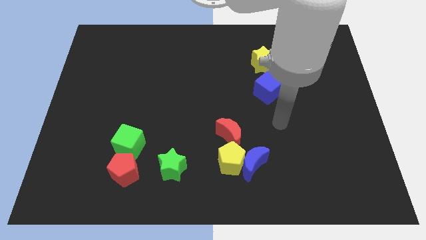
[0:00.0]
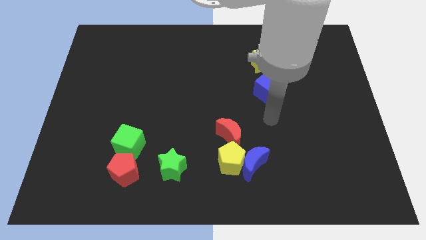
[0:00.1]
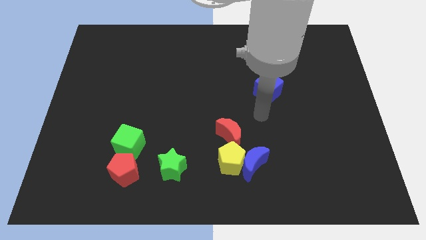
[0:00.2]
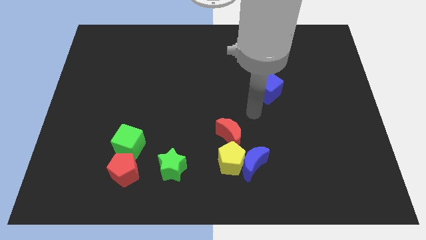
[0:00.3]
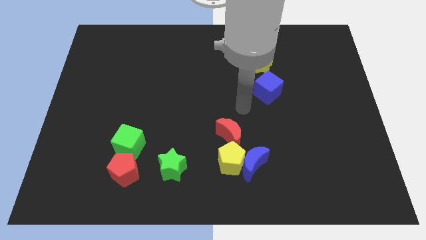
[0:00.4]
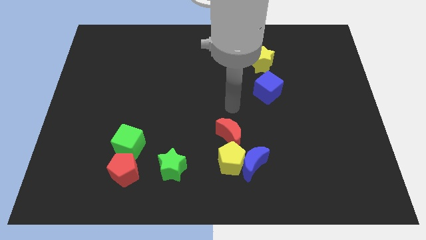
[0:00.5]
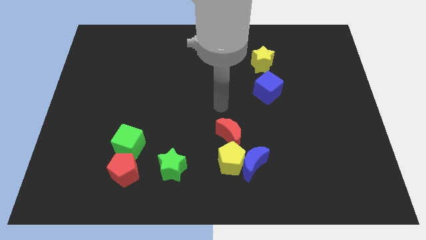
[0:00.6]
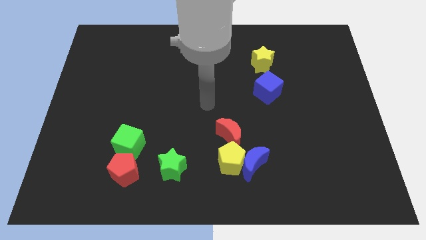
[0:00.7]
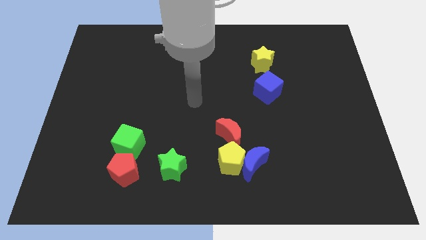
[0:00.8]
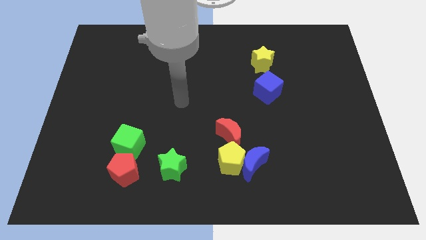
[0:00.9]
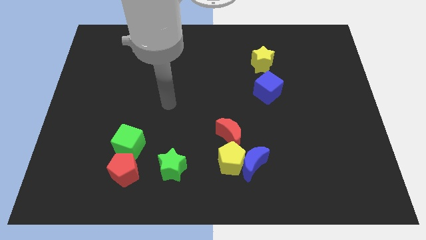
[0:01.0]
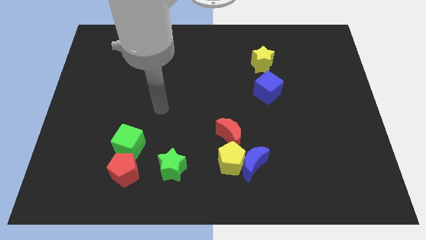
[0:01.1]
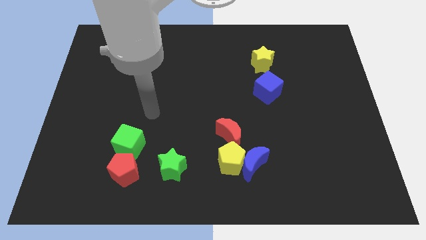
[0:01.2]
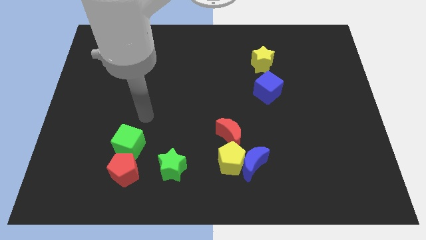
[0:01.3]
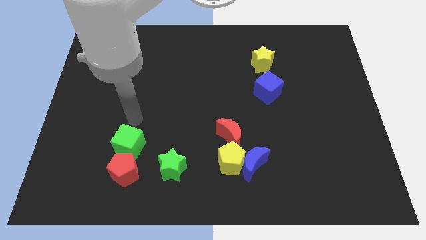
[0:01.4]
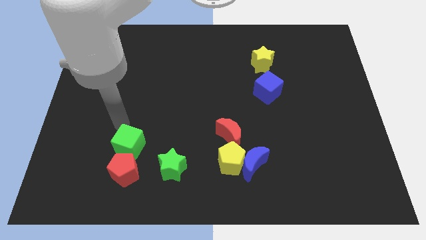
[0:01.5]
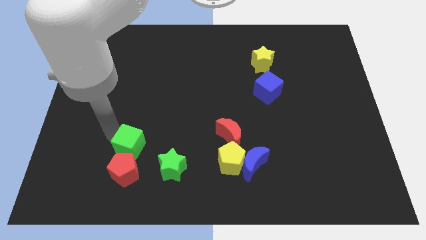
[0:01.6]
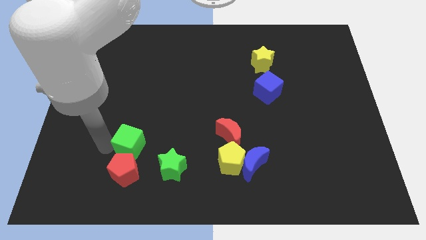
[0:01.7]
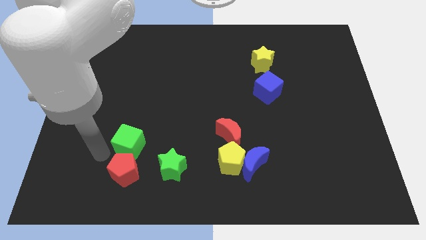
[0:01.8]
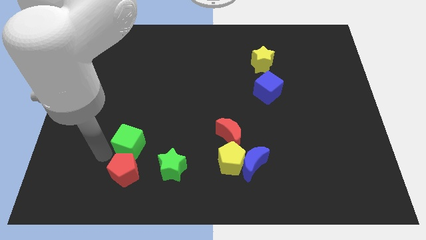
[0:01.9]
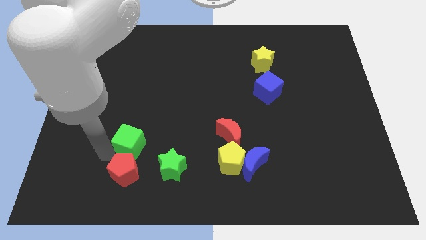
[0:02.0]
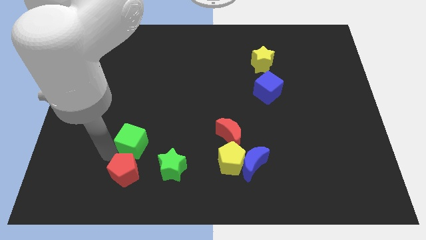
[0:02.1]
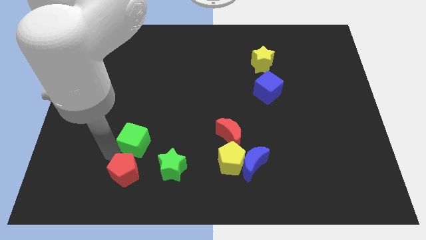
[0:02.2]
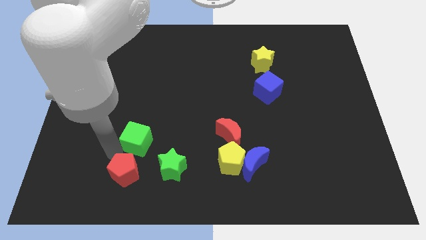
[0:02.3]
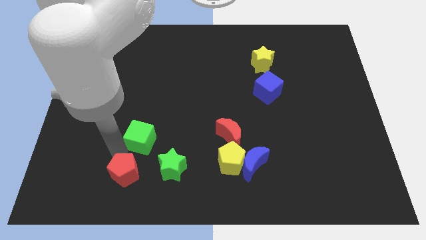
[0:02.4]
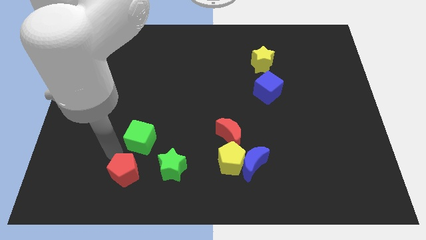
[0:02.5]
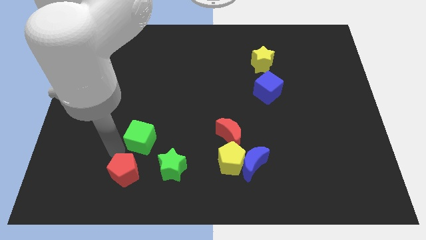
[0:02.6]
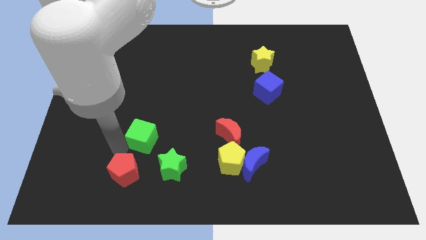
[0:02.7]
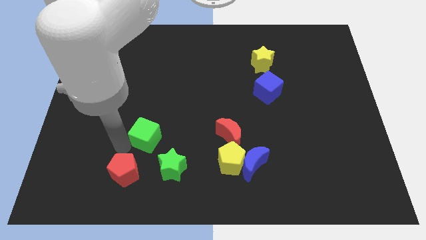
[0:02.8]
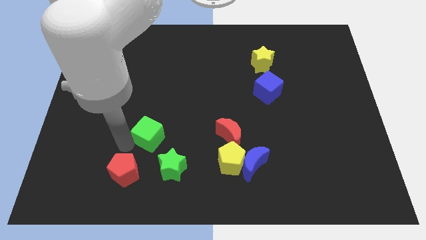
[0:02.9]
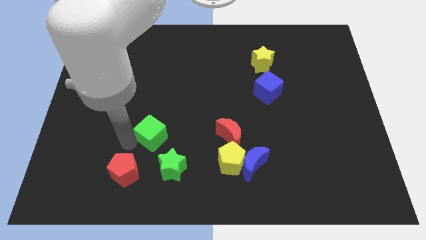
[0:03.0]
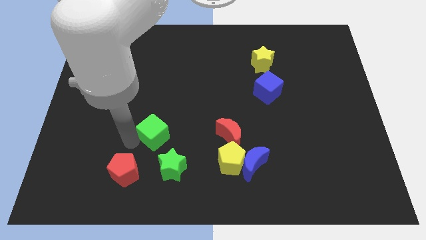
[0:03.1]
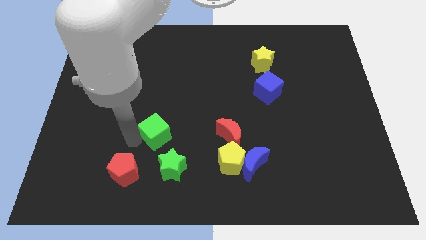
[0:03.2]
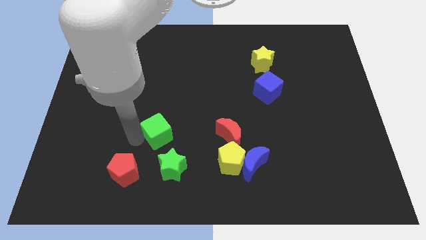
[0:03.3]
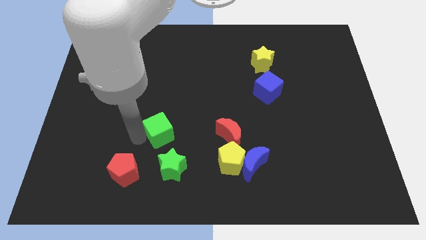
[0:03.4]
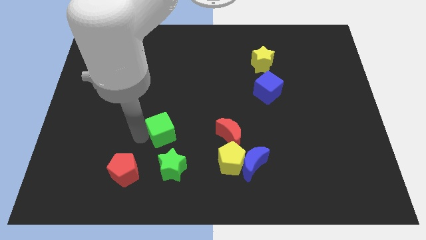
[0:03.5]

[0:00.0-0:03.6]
move the green cube up and to the right diagonally a little

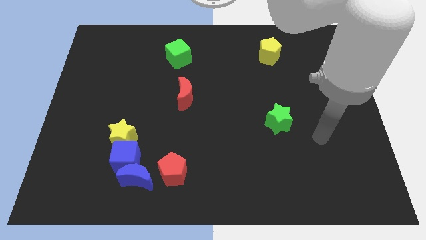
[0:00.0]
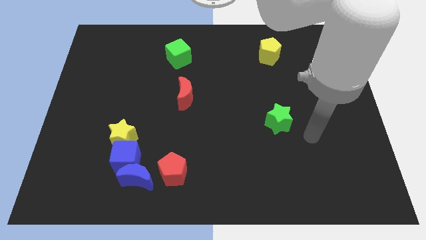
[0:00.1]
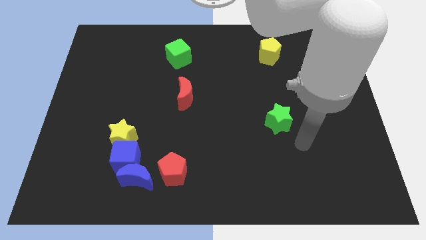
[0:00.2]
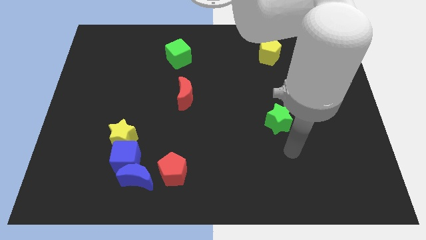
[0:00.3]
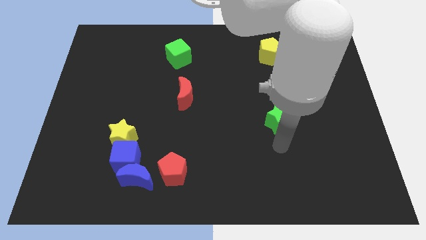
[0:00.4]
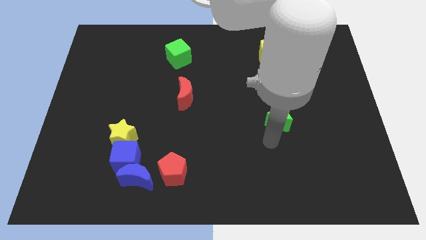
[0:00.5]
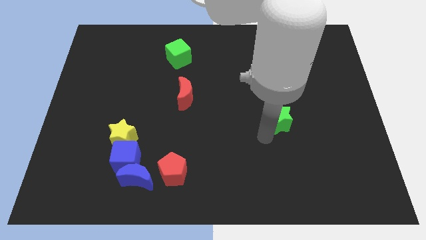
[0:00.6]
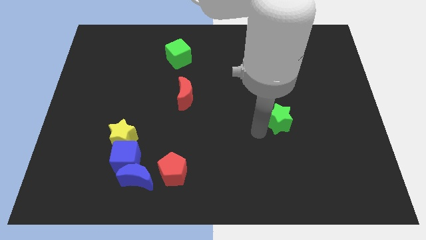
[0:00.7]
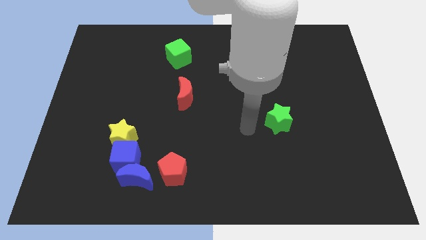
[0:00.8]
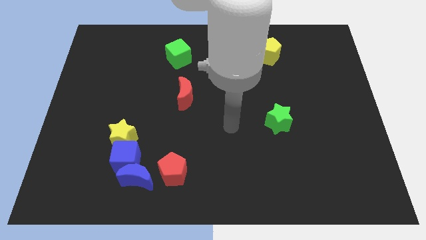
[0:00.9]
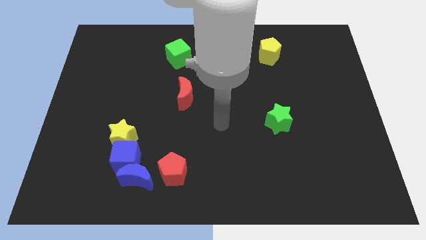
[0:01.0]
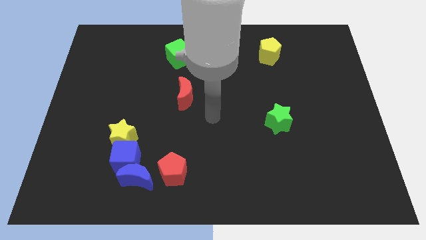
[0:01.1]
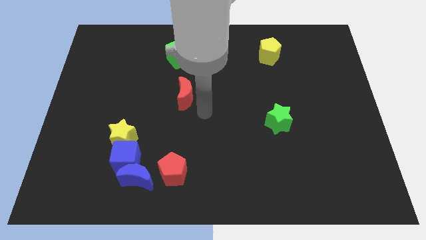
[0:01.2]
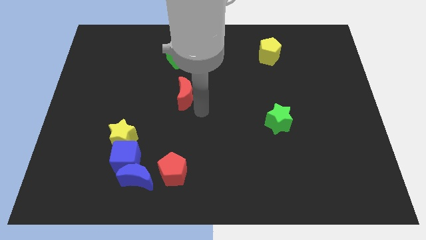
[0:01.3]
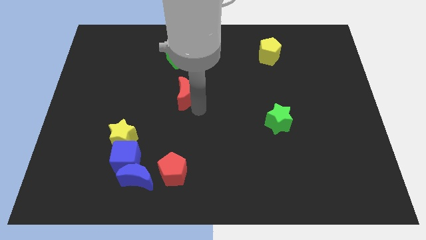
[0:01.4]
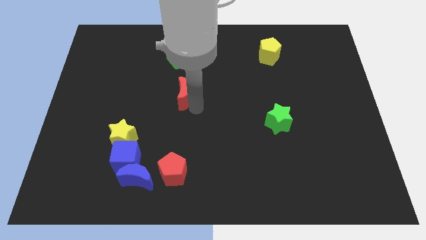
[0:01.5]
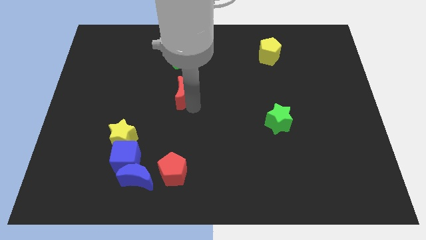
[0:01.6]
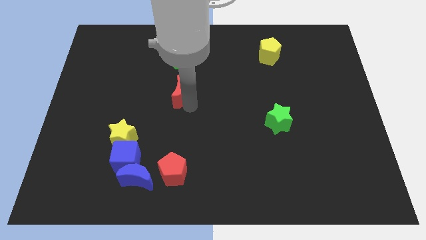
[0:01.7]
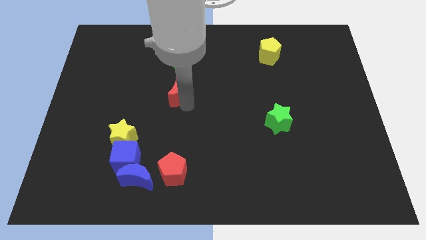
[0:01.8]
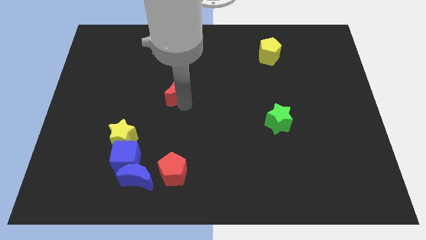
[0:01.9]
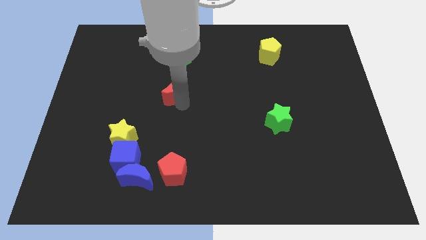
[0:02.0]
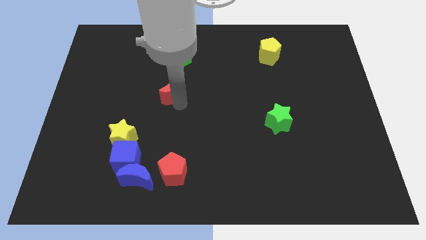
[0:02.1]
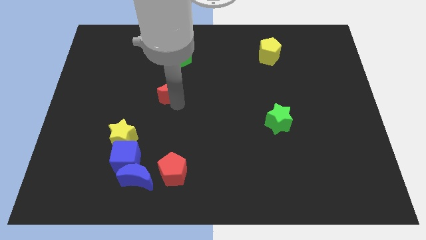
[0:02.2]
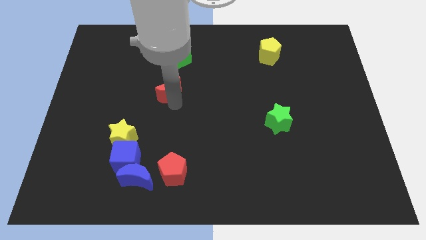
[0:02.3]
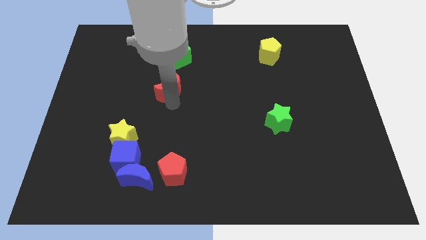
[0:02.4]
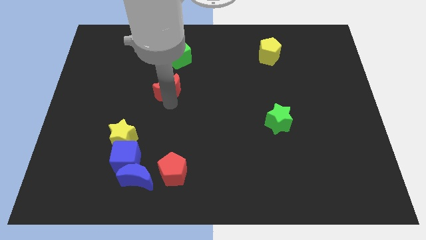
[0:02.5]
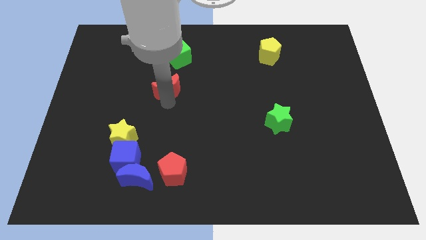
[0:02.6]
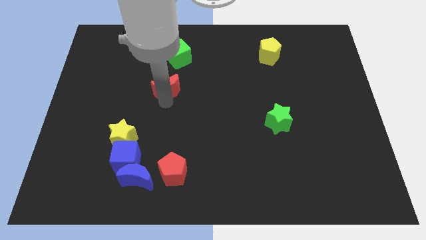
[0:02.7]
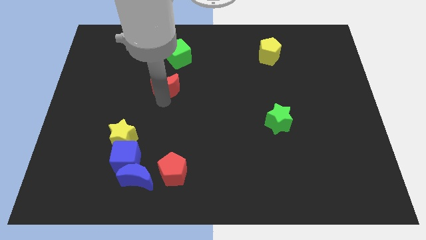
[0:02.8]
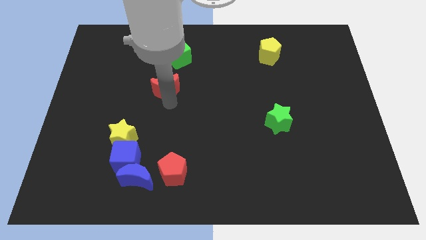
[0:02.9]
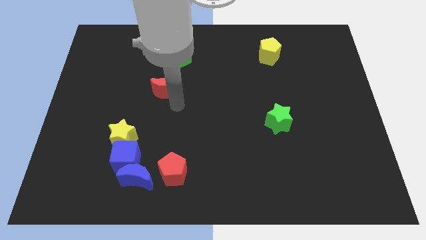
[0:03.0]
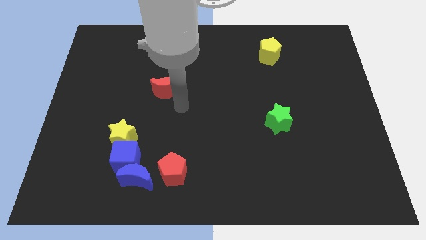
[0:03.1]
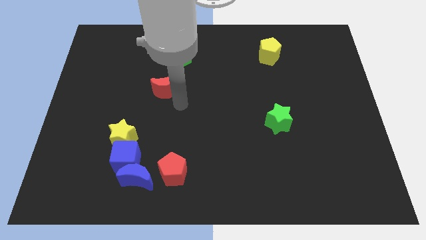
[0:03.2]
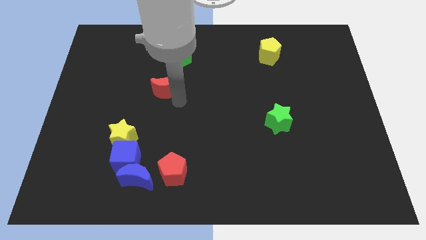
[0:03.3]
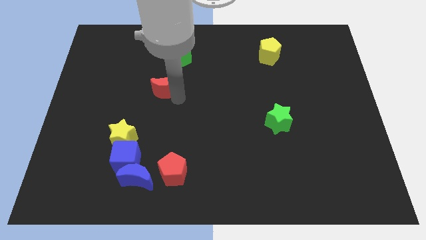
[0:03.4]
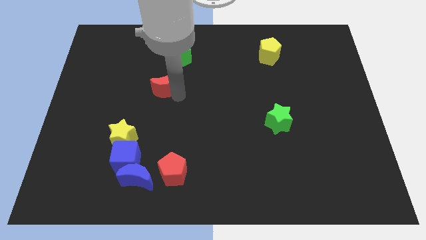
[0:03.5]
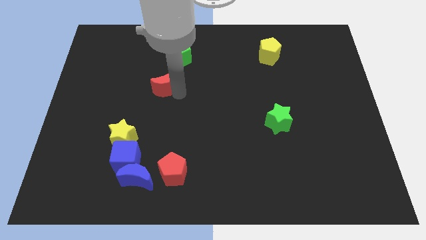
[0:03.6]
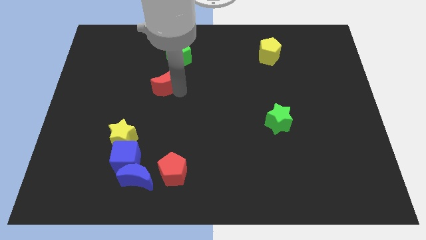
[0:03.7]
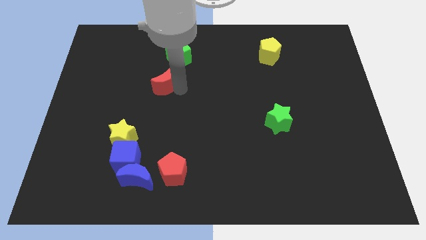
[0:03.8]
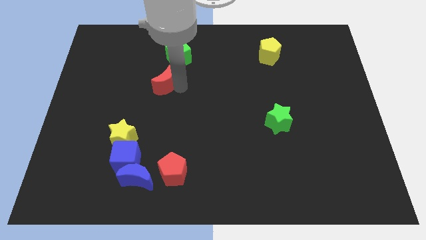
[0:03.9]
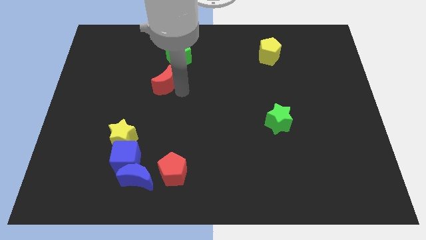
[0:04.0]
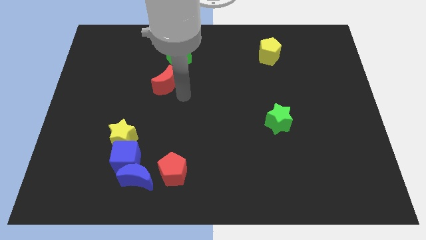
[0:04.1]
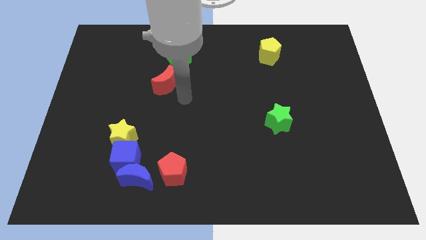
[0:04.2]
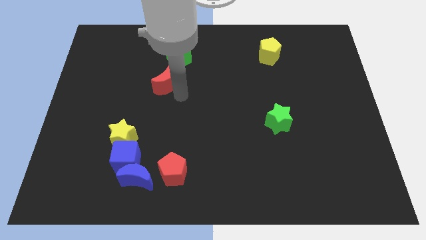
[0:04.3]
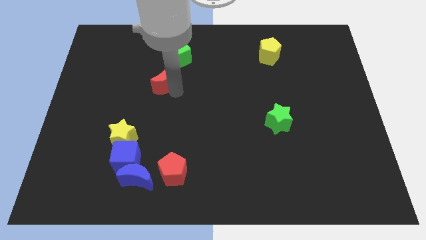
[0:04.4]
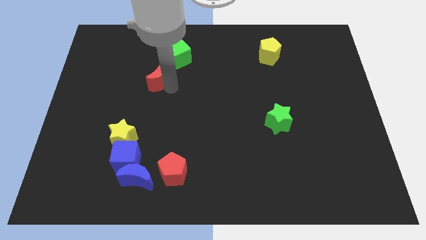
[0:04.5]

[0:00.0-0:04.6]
push the red moon a little diagonally upwards and to the left
